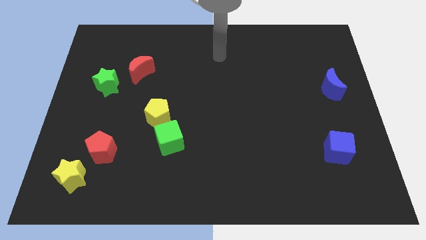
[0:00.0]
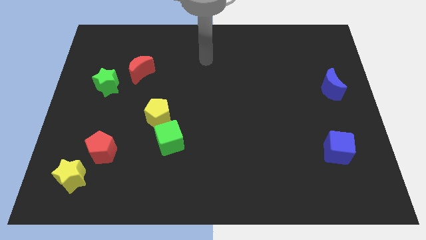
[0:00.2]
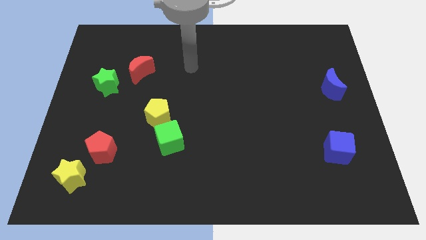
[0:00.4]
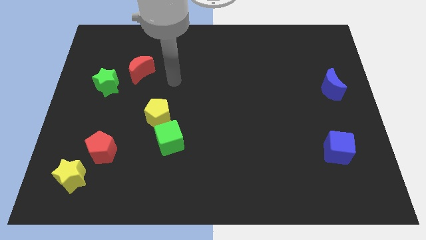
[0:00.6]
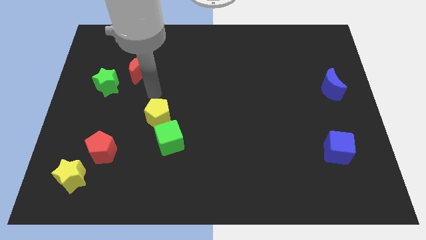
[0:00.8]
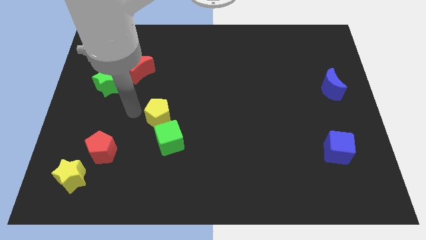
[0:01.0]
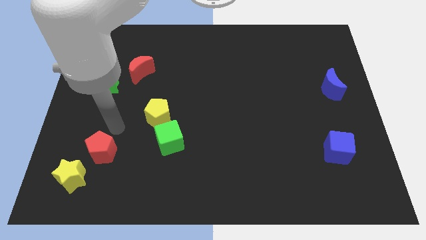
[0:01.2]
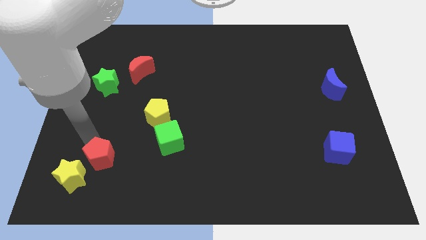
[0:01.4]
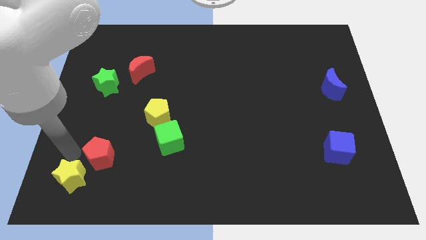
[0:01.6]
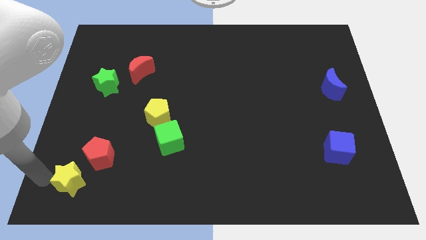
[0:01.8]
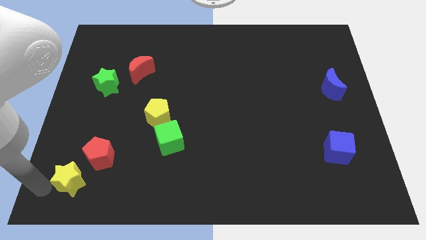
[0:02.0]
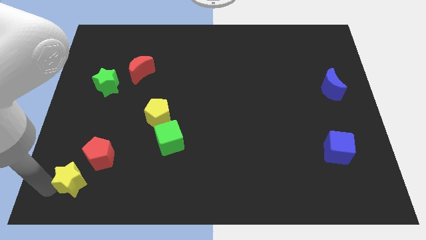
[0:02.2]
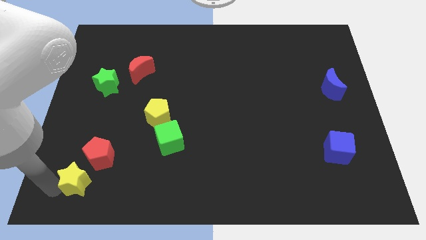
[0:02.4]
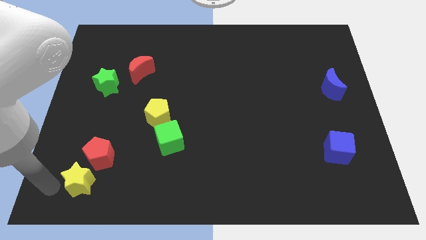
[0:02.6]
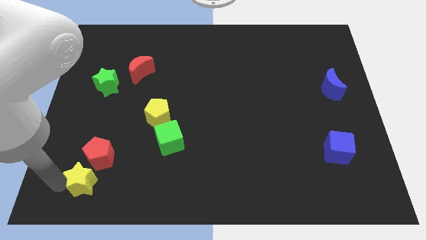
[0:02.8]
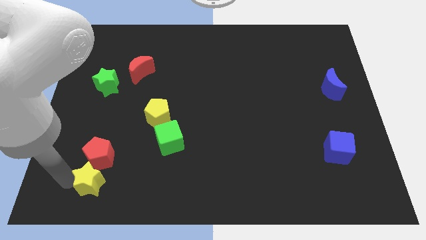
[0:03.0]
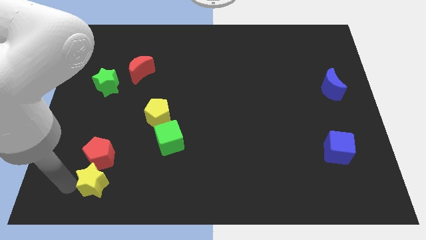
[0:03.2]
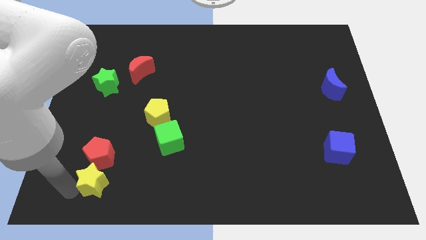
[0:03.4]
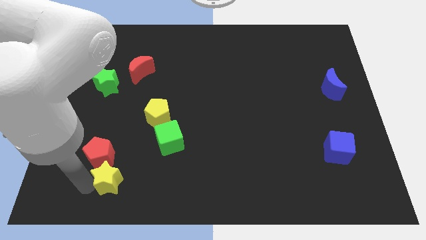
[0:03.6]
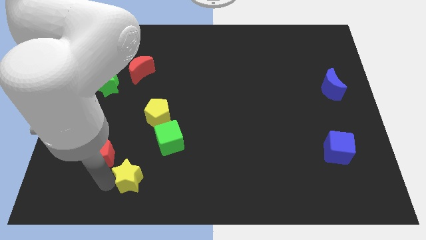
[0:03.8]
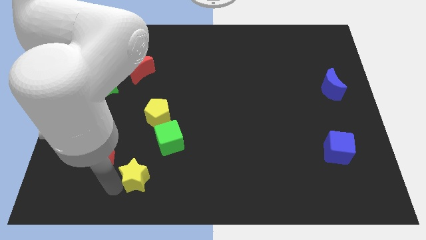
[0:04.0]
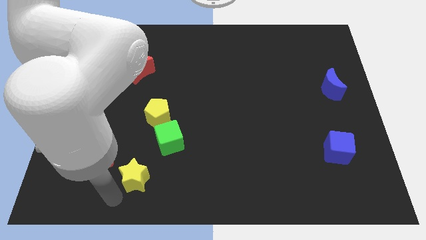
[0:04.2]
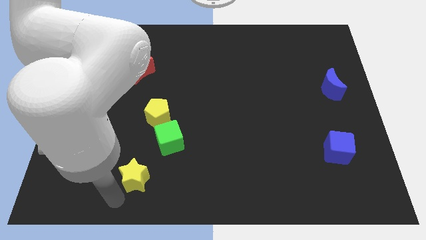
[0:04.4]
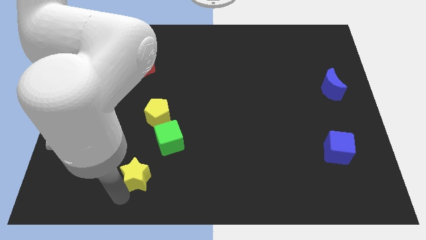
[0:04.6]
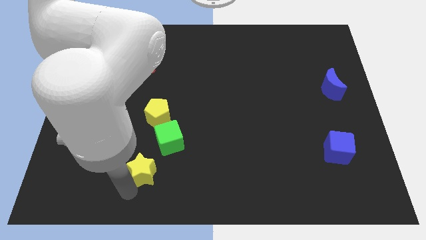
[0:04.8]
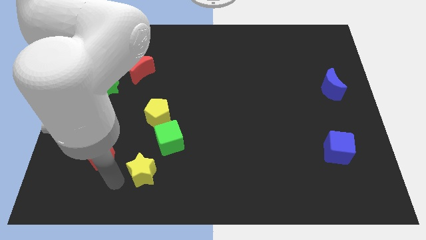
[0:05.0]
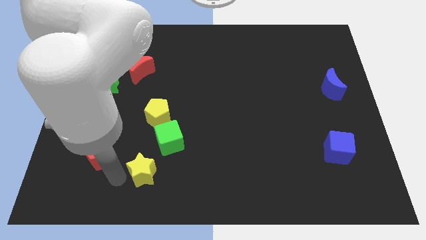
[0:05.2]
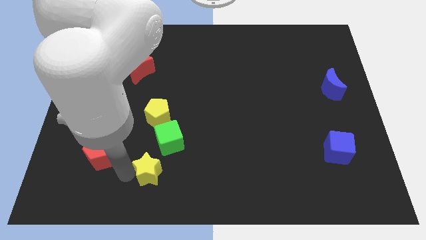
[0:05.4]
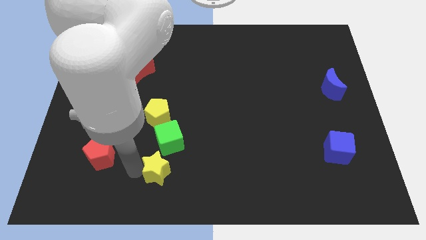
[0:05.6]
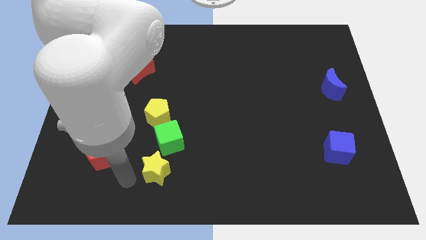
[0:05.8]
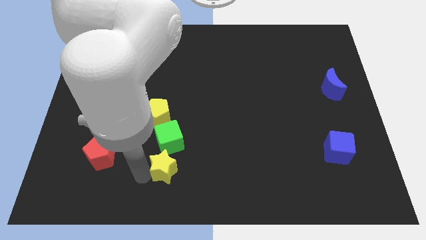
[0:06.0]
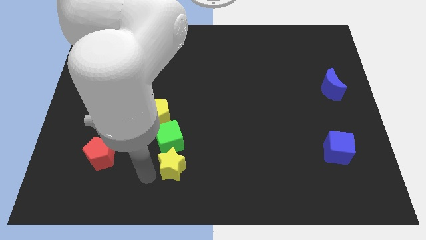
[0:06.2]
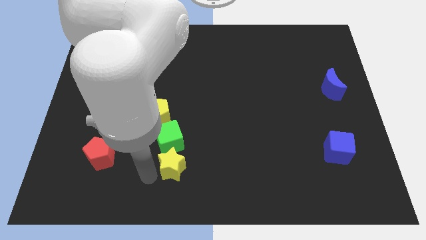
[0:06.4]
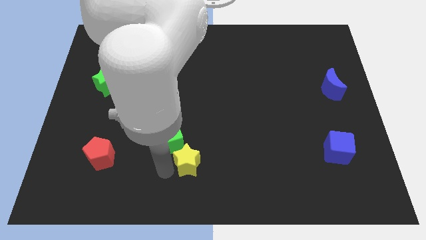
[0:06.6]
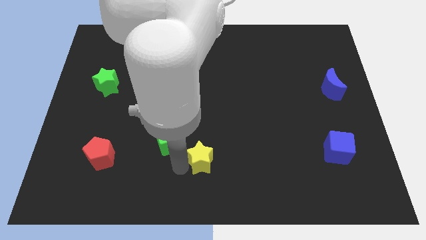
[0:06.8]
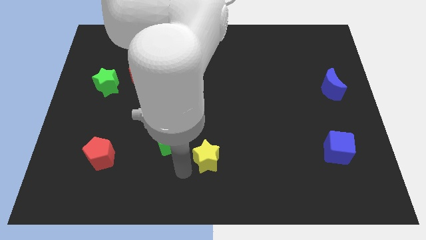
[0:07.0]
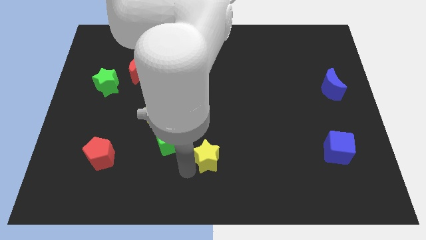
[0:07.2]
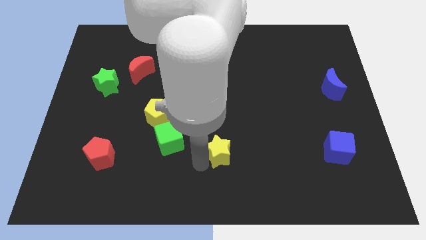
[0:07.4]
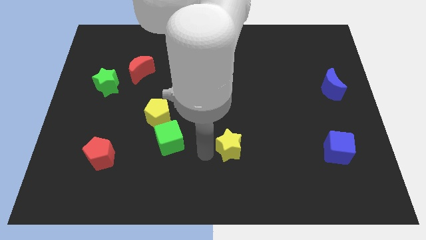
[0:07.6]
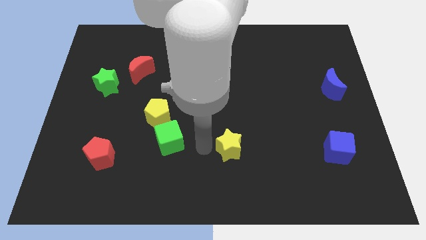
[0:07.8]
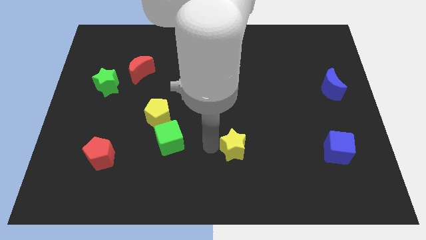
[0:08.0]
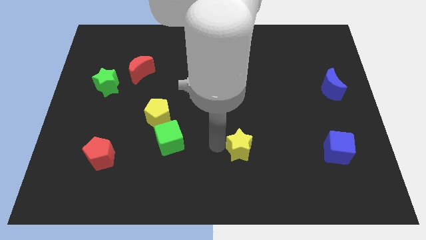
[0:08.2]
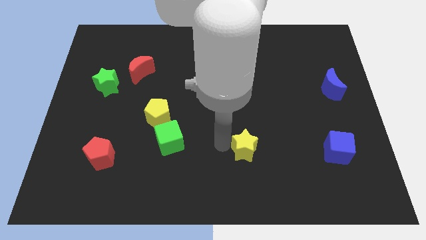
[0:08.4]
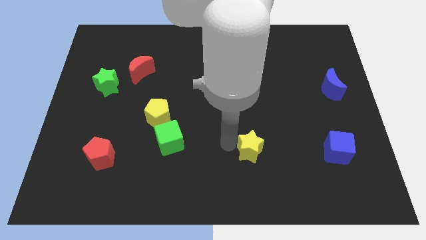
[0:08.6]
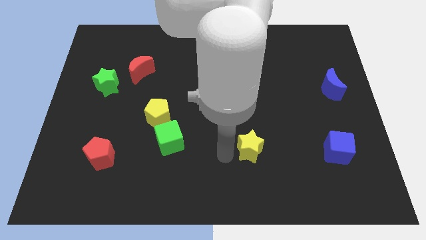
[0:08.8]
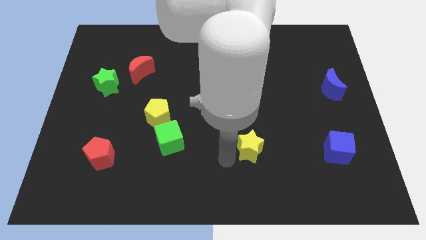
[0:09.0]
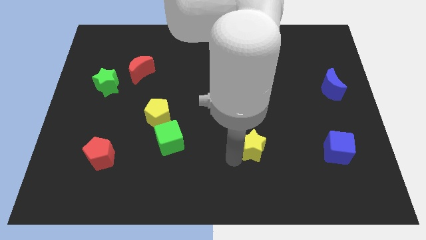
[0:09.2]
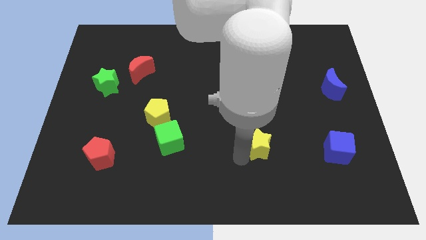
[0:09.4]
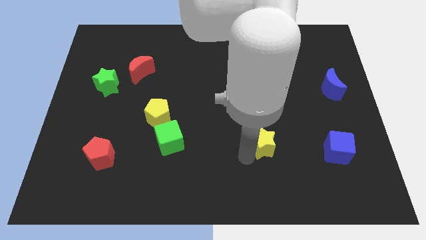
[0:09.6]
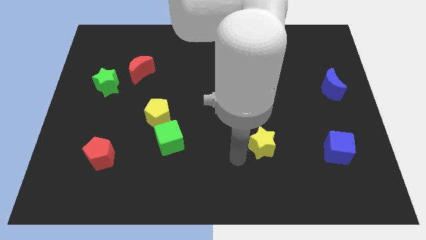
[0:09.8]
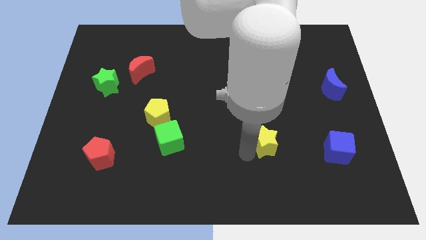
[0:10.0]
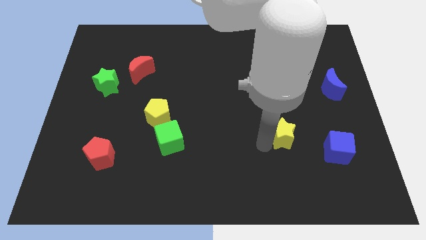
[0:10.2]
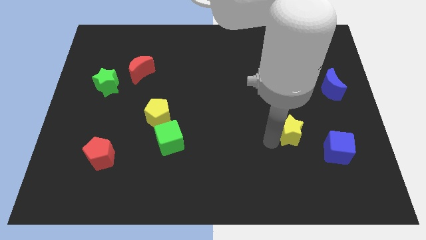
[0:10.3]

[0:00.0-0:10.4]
move the yellow star to the top left of the blue cube

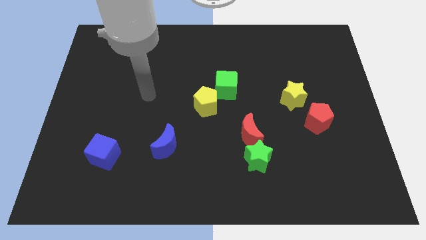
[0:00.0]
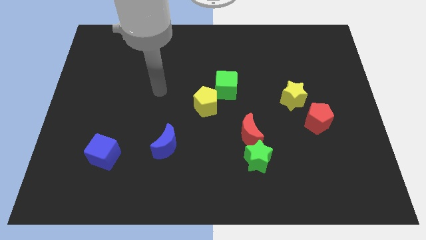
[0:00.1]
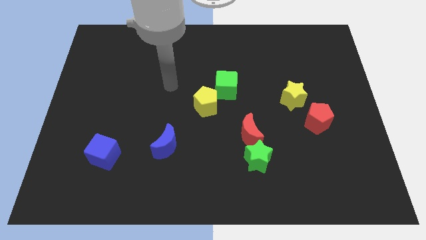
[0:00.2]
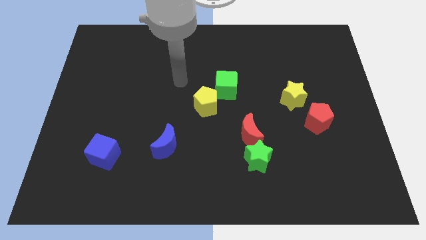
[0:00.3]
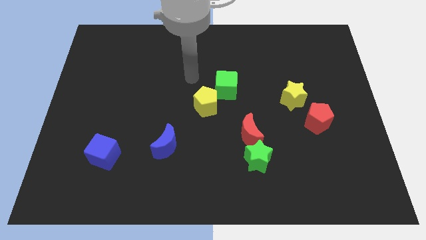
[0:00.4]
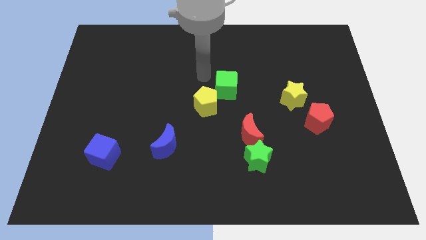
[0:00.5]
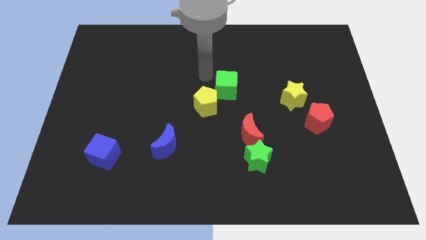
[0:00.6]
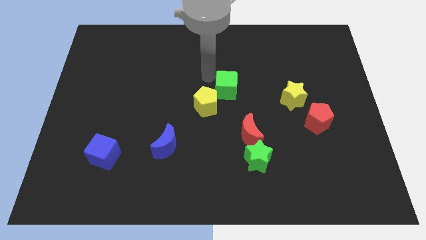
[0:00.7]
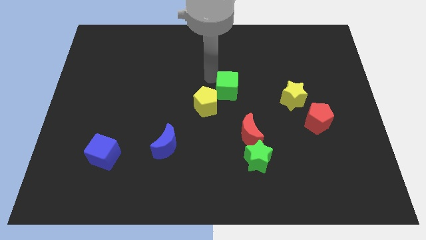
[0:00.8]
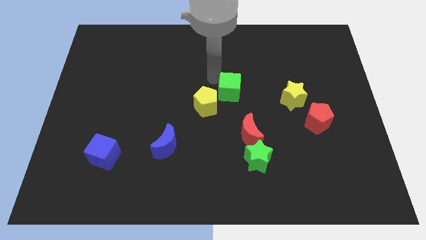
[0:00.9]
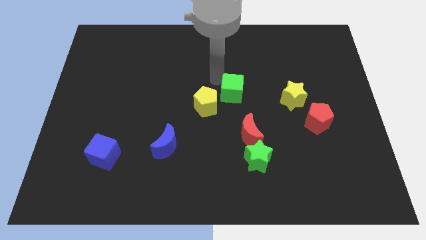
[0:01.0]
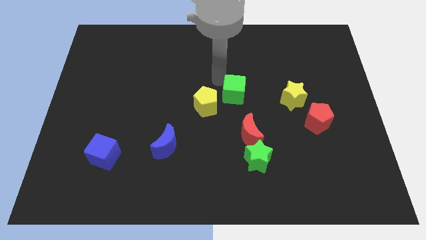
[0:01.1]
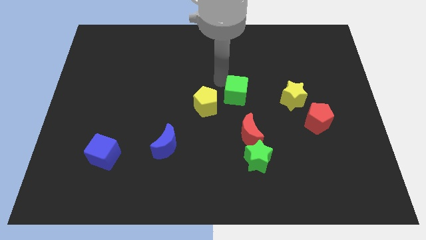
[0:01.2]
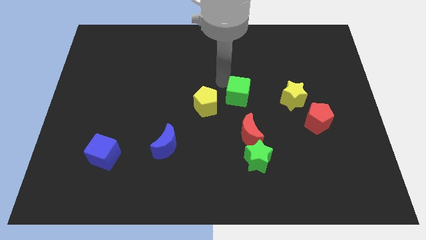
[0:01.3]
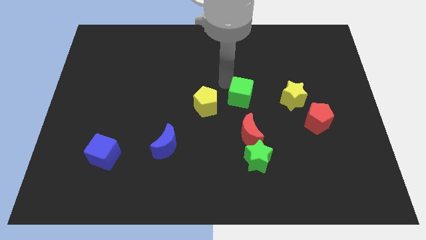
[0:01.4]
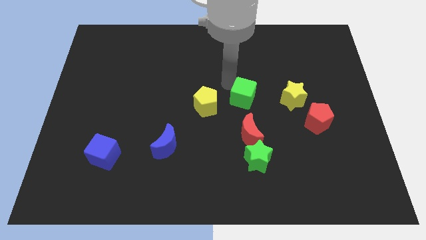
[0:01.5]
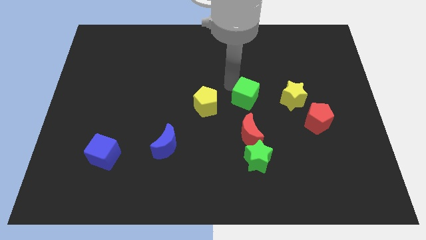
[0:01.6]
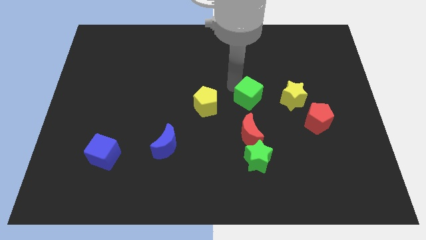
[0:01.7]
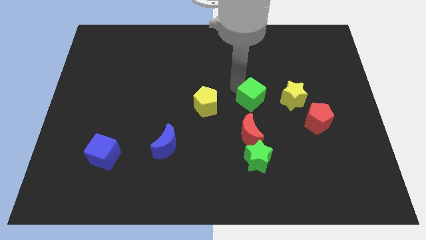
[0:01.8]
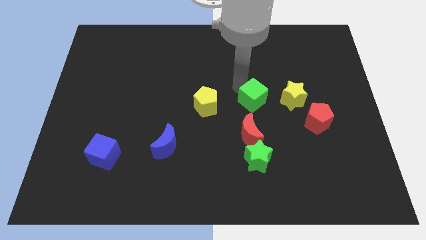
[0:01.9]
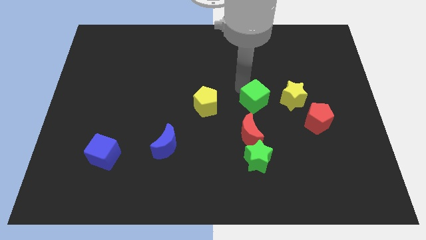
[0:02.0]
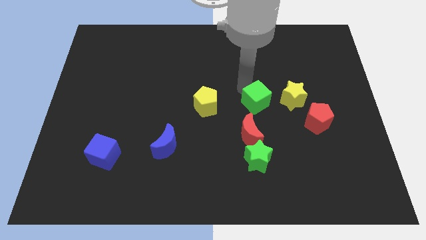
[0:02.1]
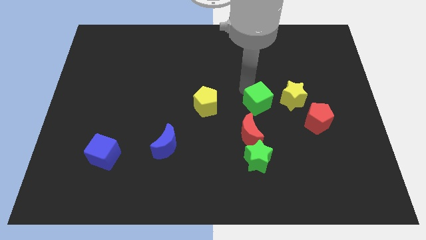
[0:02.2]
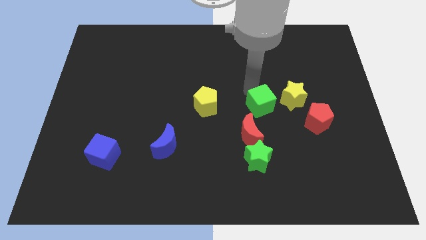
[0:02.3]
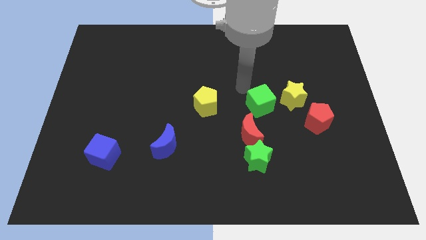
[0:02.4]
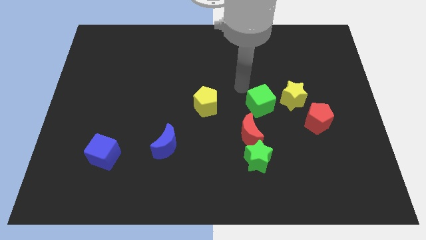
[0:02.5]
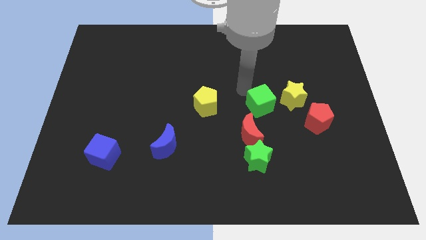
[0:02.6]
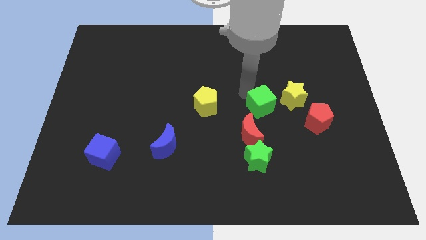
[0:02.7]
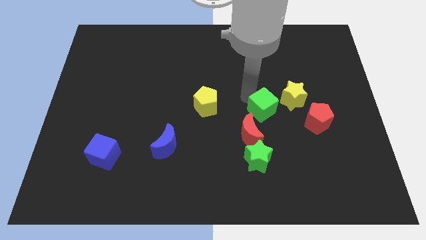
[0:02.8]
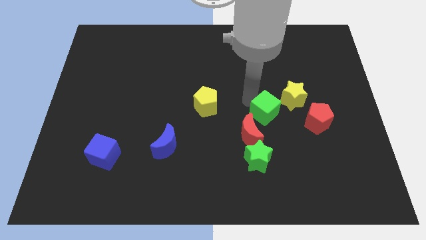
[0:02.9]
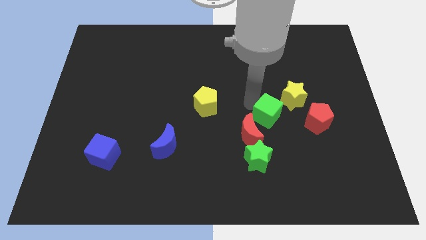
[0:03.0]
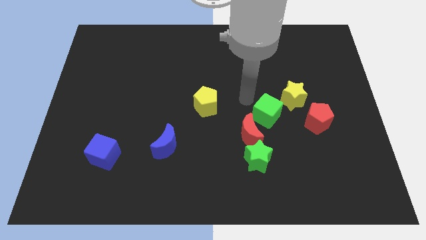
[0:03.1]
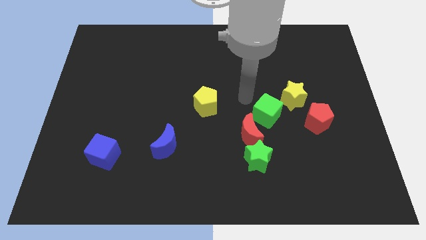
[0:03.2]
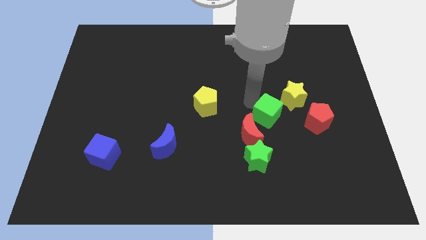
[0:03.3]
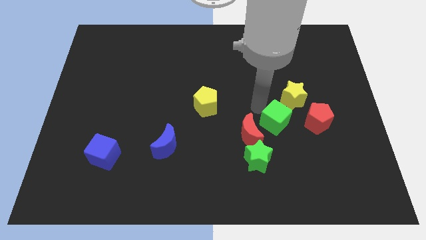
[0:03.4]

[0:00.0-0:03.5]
put the green cube to the right side of the red moon
